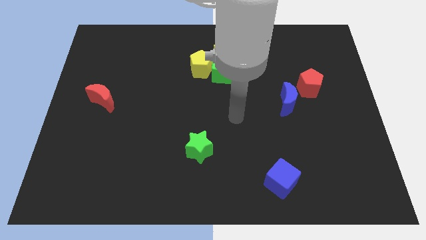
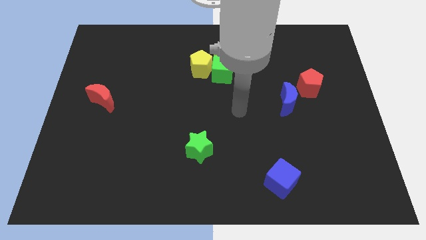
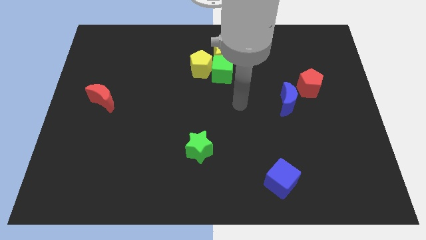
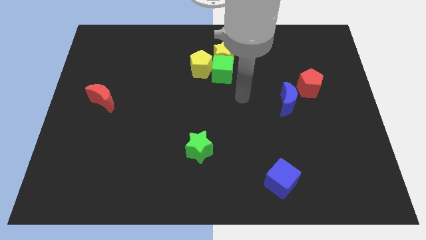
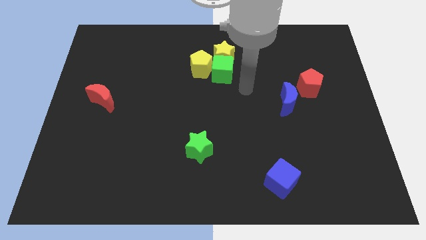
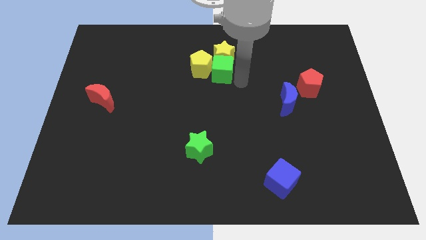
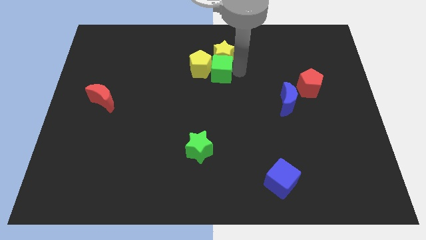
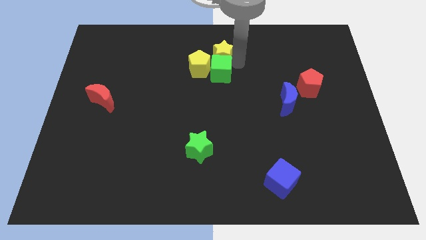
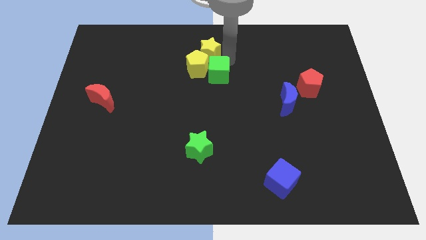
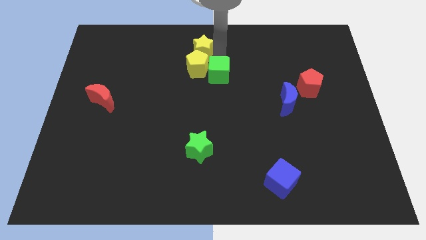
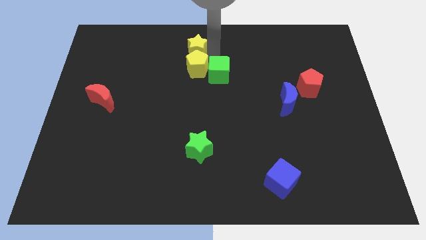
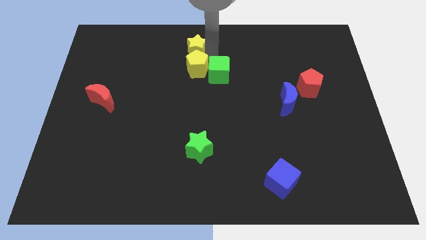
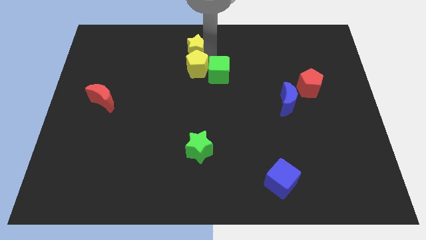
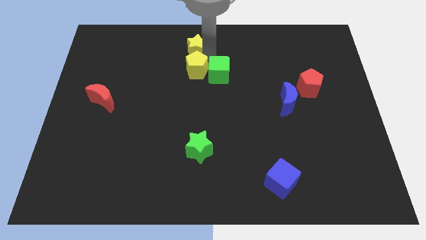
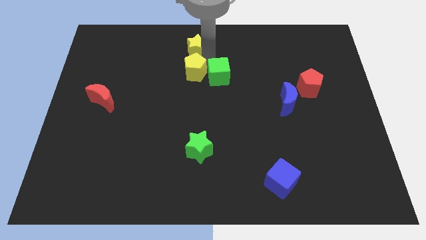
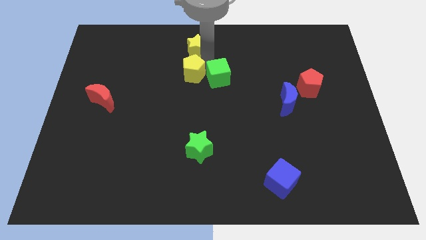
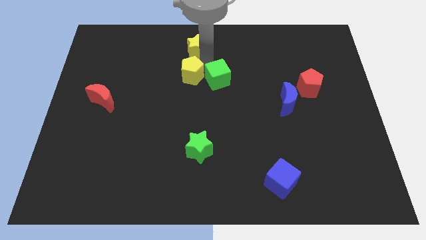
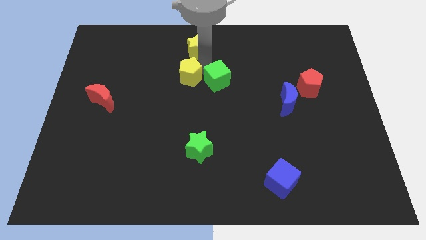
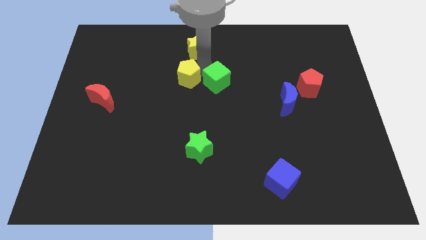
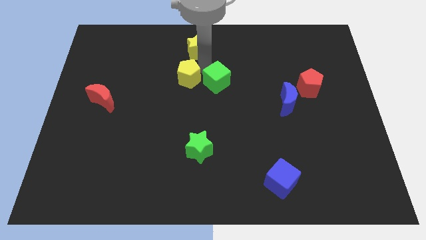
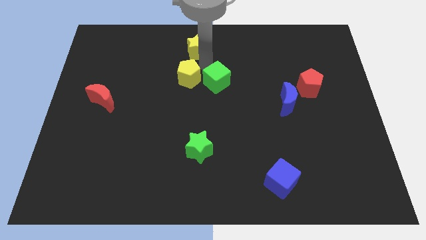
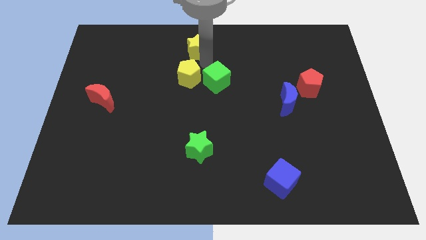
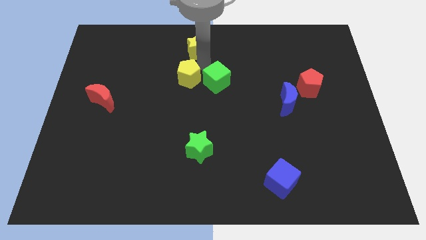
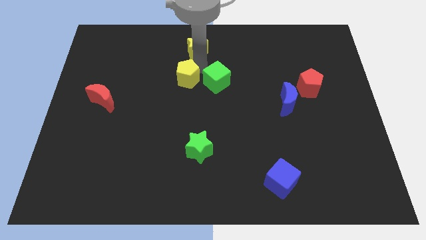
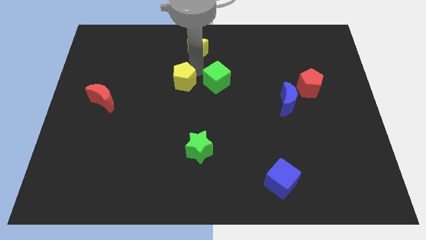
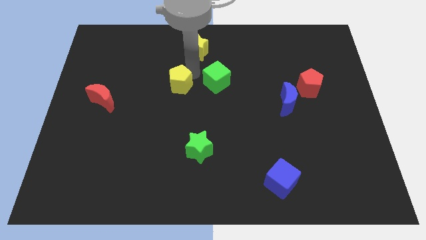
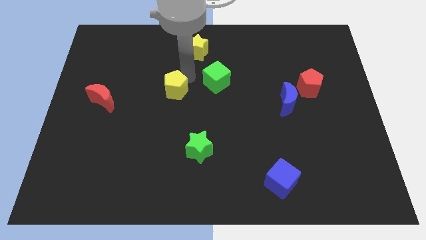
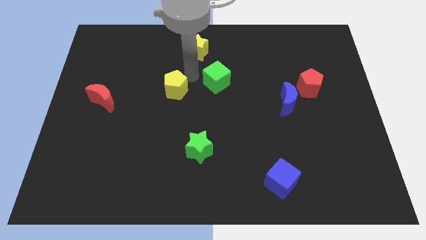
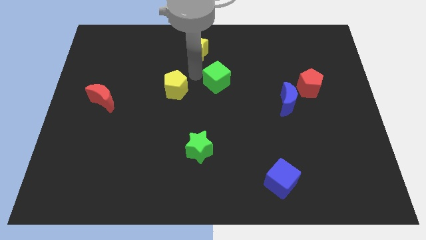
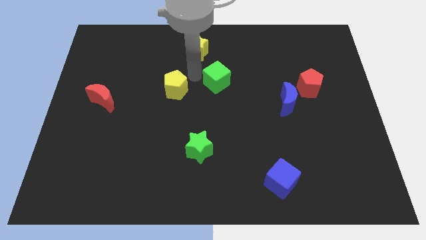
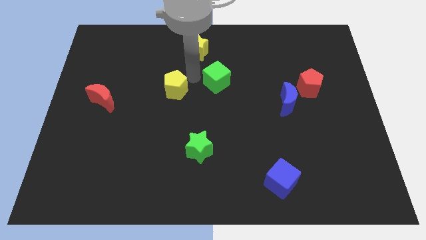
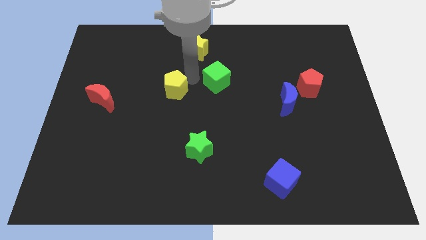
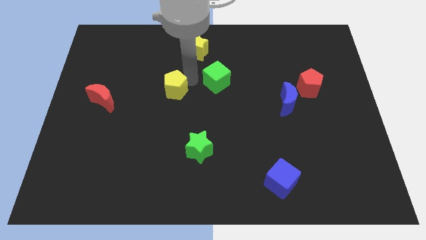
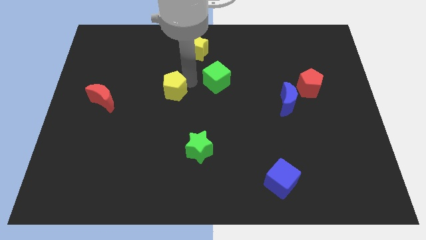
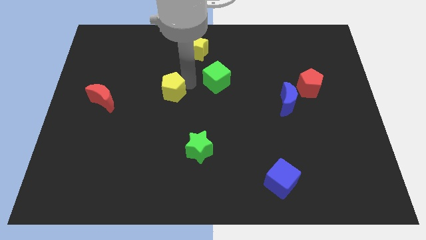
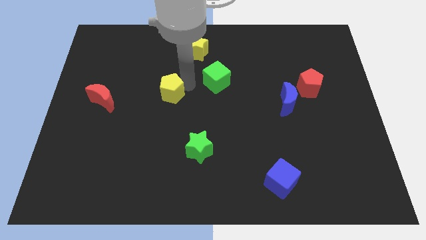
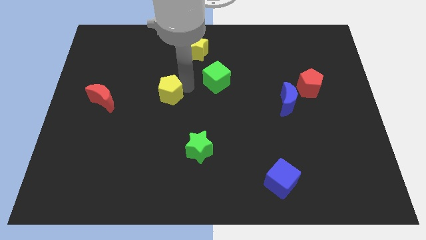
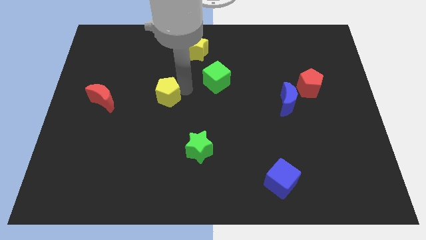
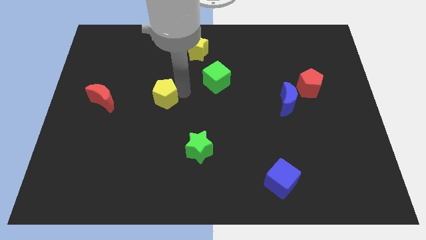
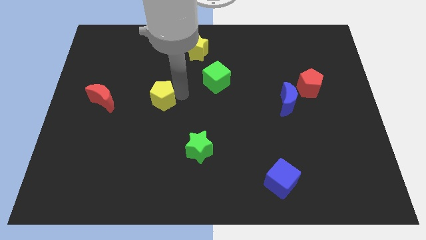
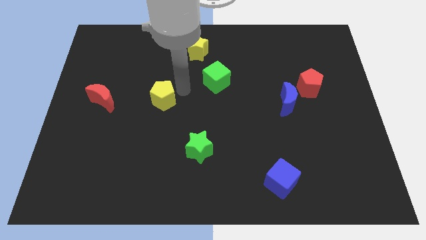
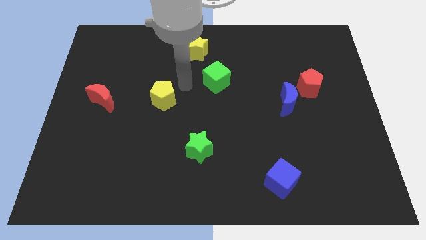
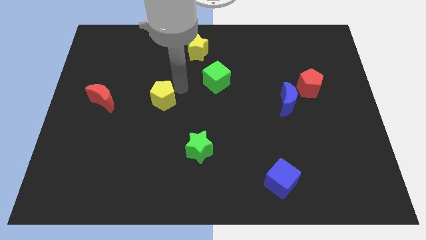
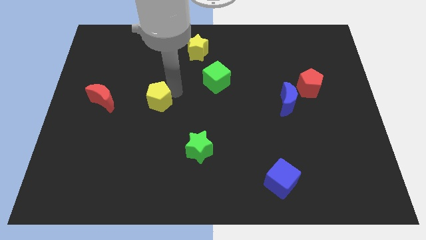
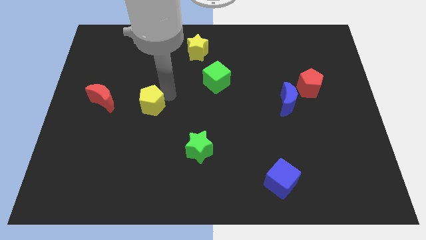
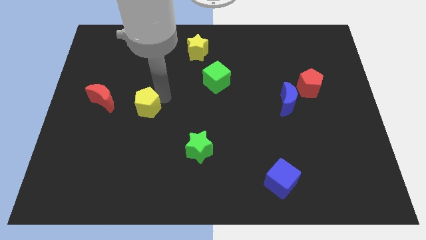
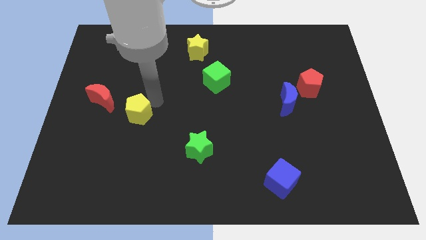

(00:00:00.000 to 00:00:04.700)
push the yellow pentagon downwards and to the left diagonally

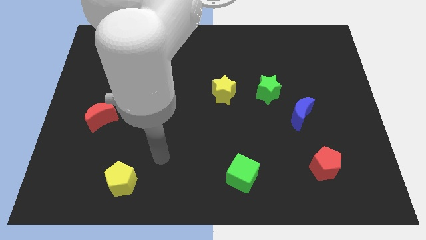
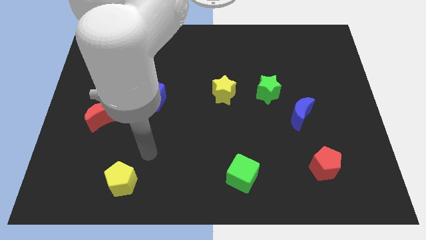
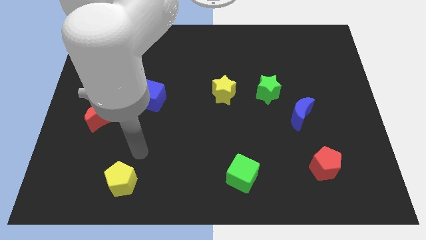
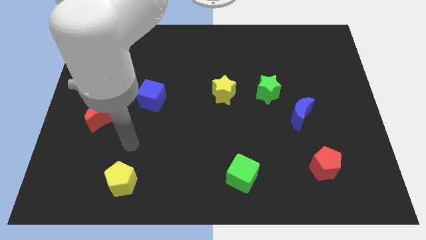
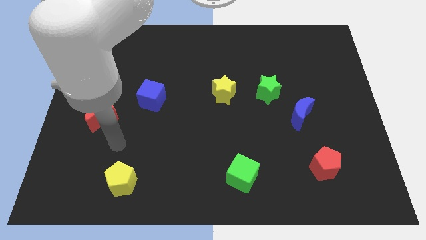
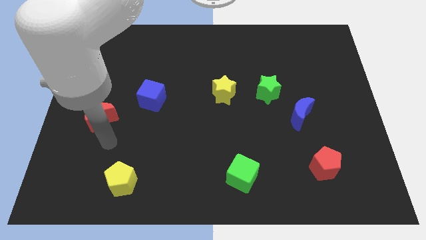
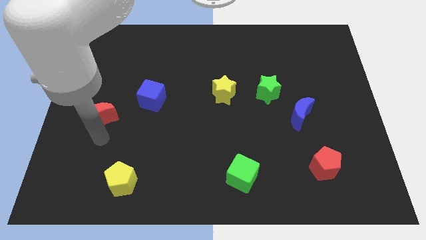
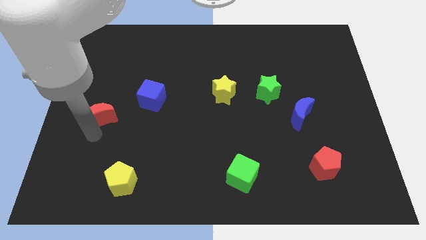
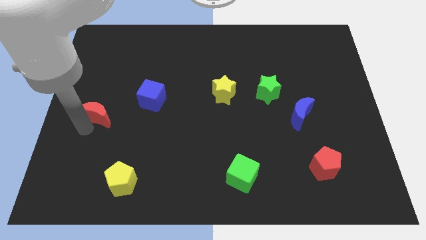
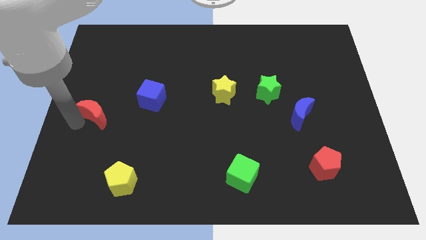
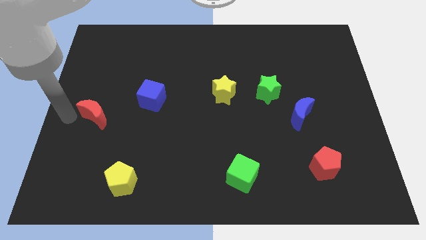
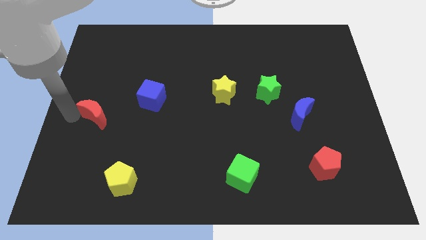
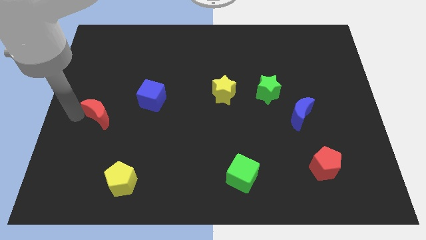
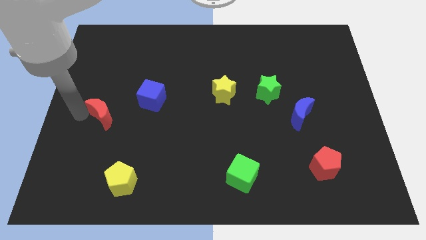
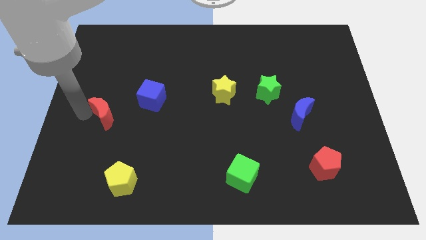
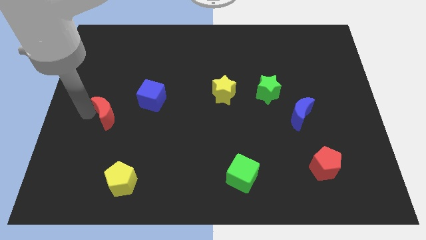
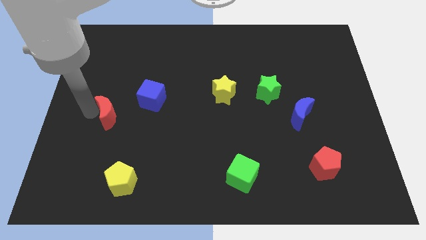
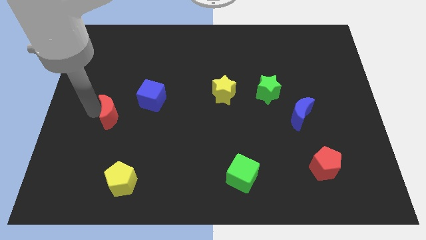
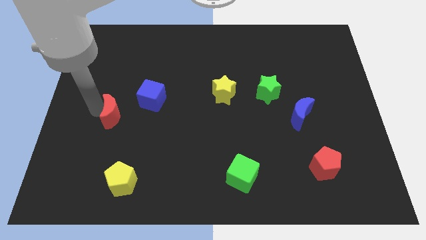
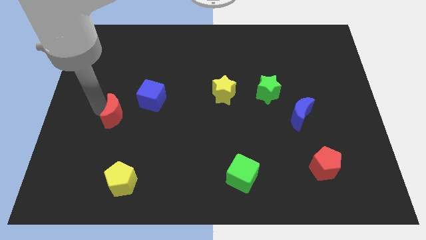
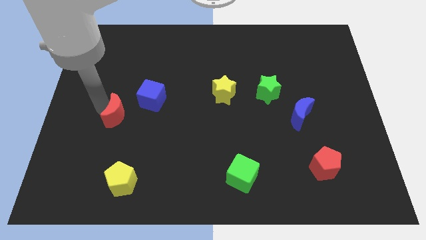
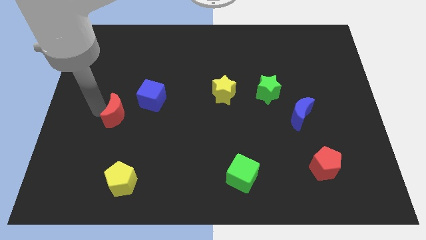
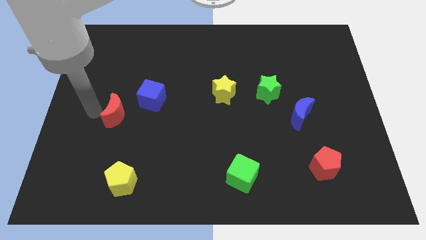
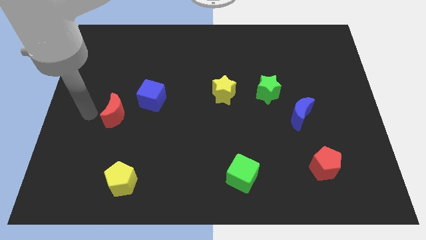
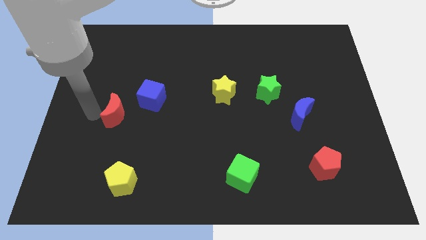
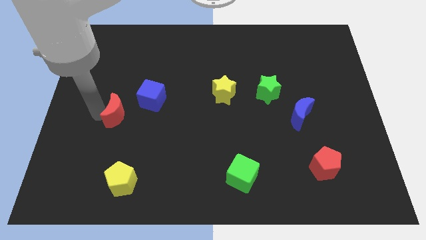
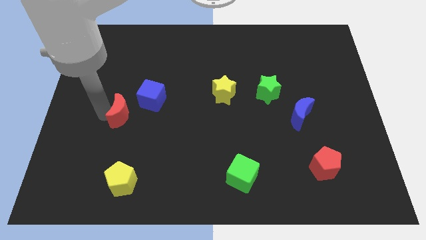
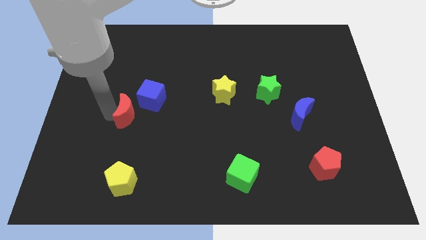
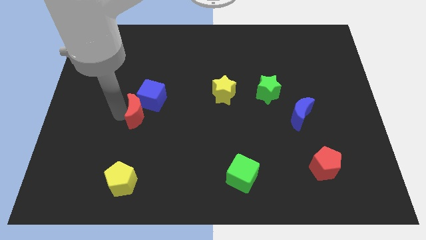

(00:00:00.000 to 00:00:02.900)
push the red moon somewhat to the right

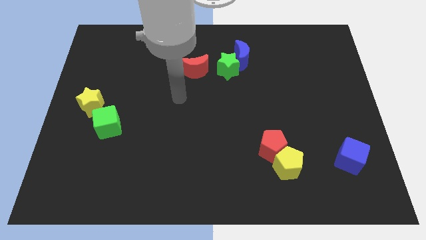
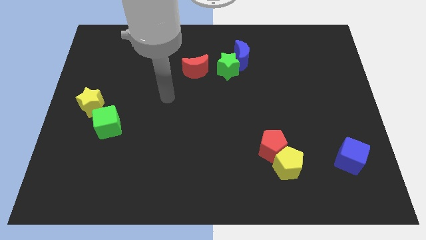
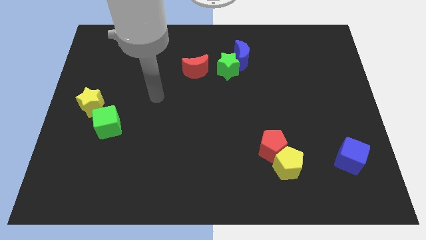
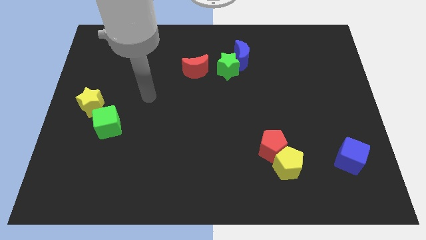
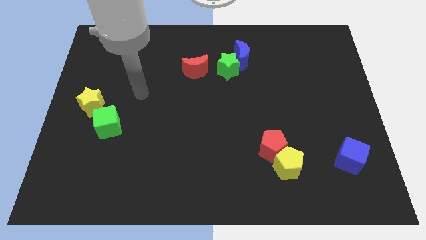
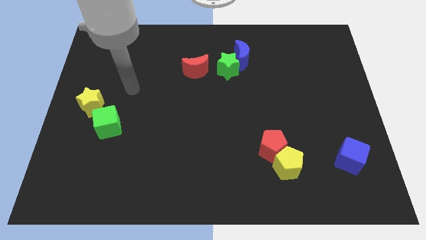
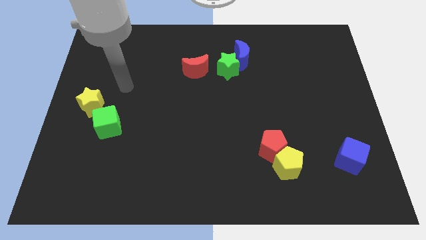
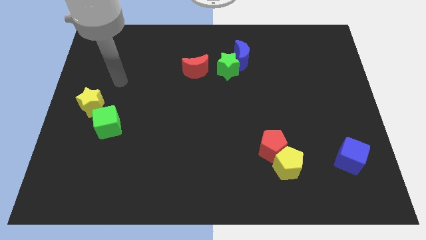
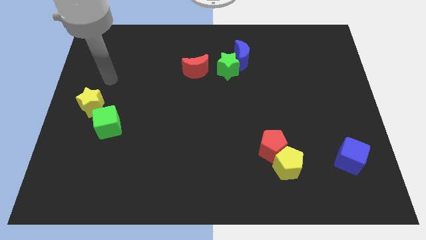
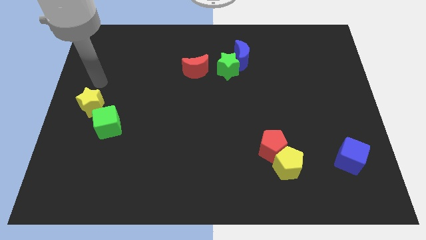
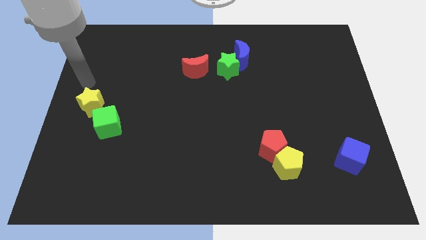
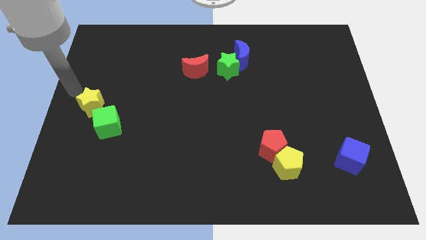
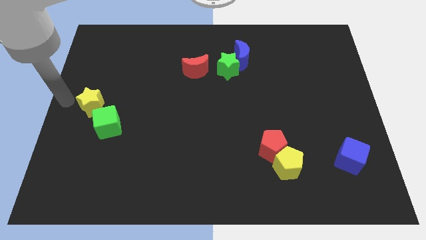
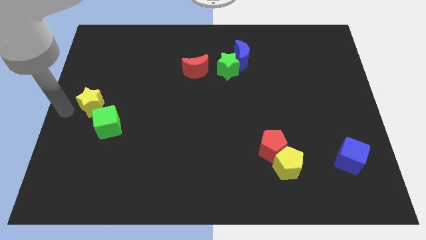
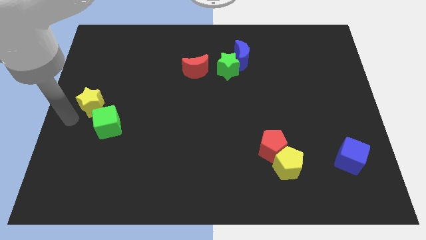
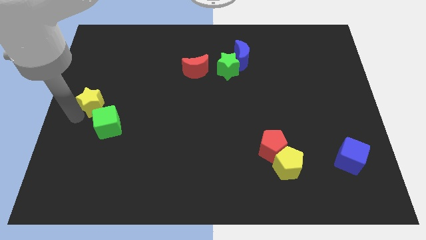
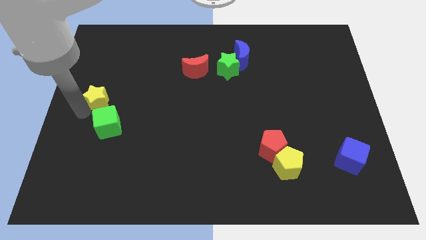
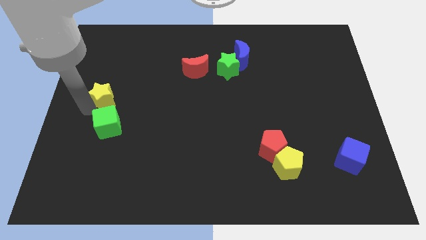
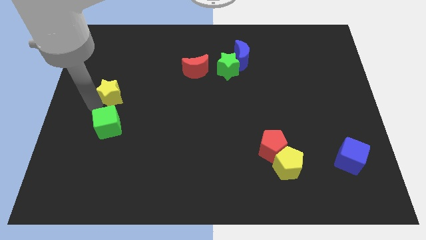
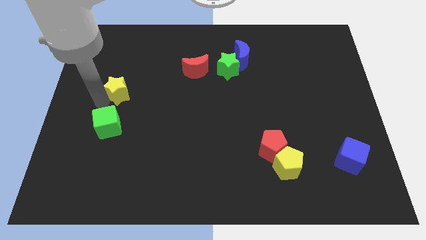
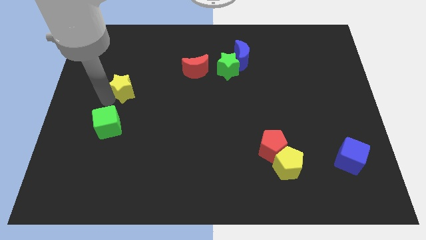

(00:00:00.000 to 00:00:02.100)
slightly slide the yellow star upwards and right
